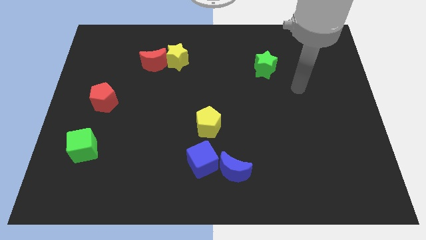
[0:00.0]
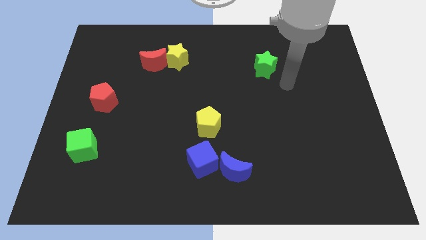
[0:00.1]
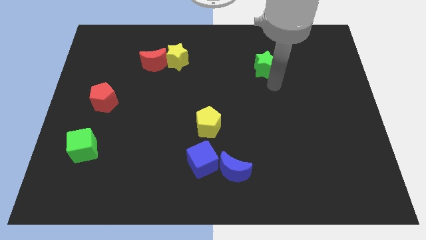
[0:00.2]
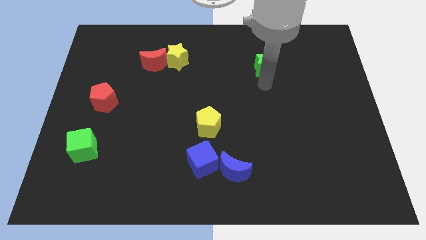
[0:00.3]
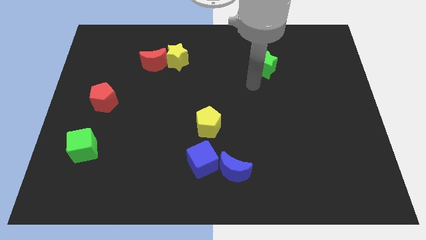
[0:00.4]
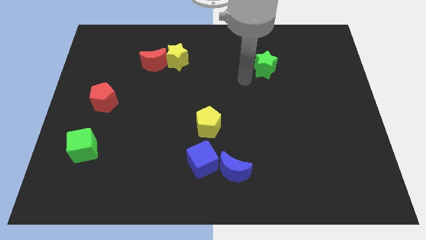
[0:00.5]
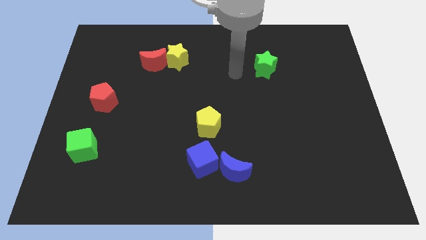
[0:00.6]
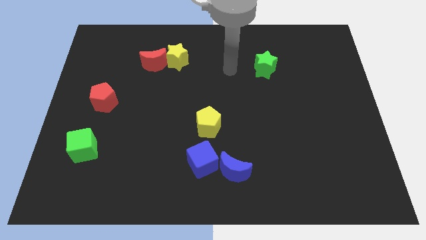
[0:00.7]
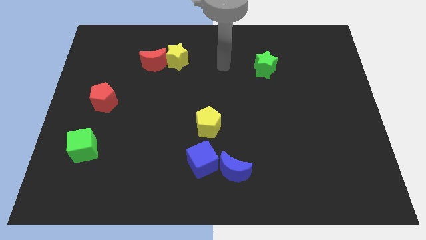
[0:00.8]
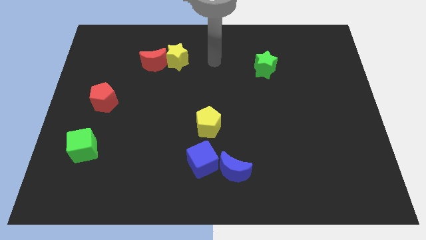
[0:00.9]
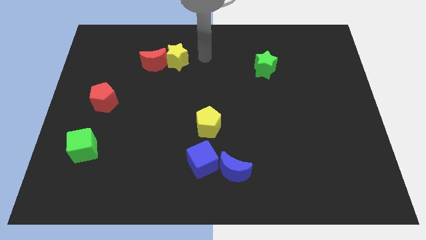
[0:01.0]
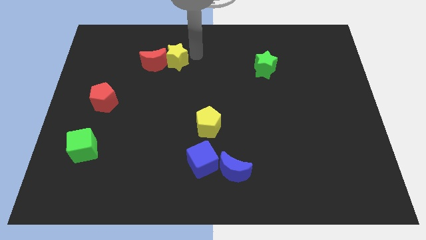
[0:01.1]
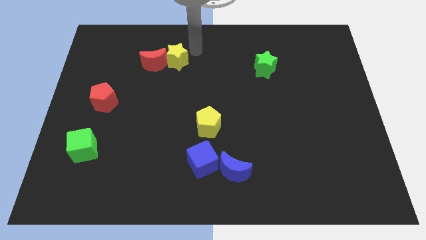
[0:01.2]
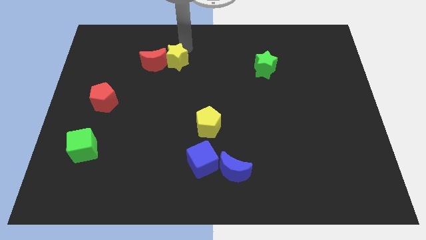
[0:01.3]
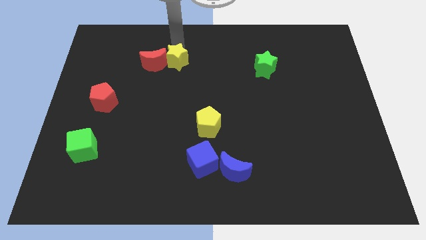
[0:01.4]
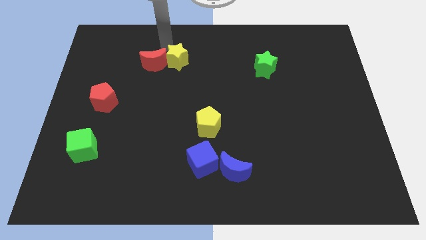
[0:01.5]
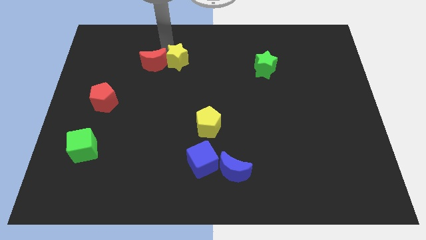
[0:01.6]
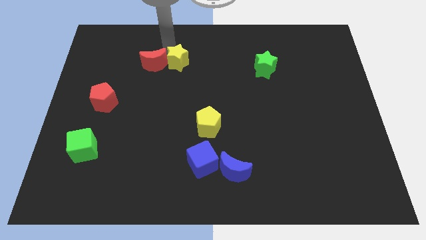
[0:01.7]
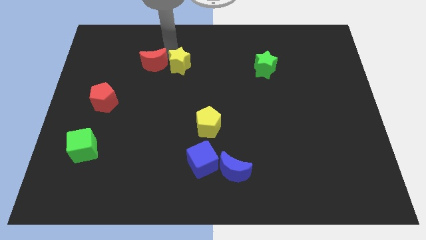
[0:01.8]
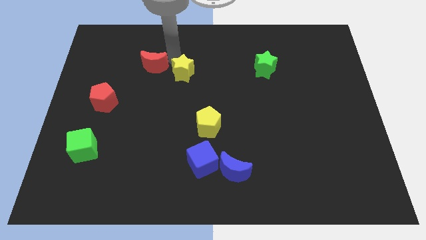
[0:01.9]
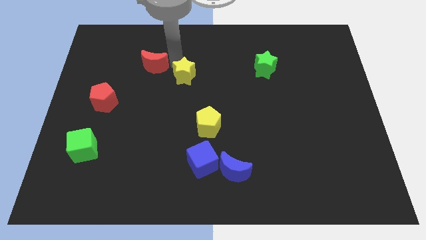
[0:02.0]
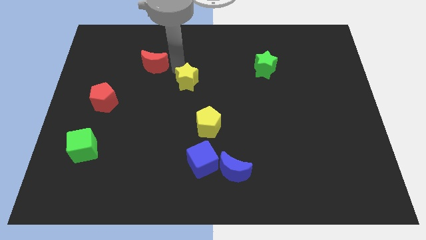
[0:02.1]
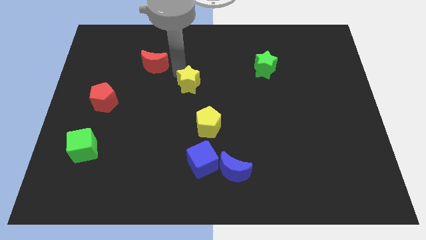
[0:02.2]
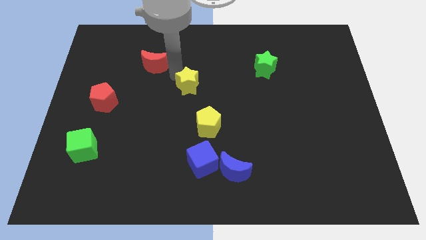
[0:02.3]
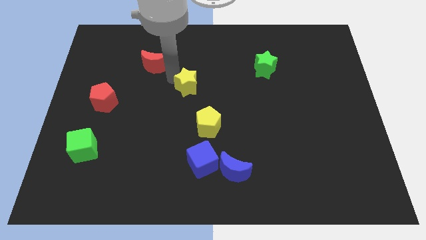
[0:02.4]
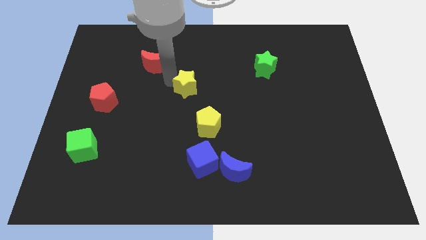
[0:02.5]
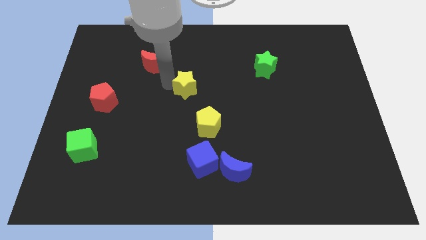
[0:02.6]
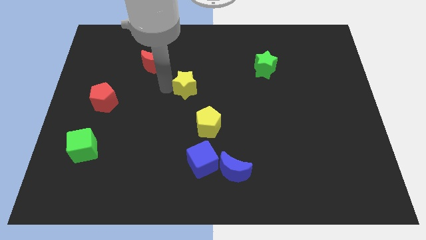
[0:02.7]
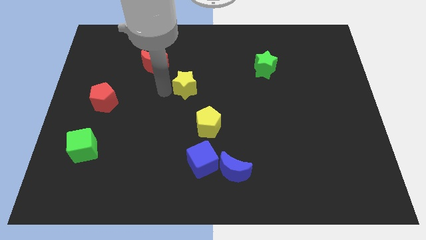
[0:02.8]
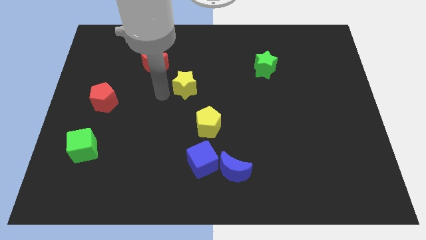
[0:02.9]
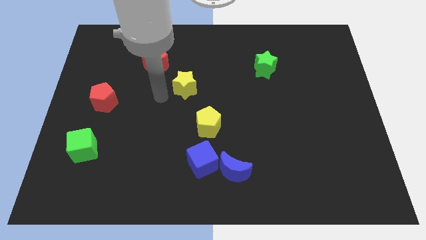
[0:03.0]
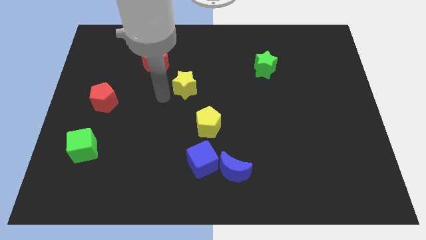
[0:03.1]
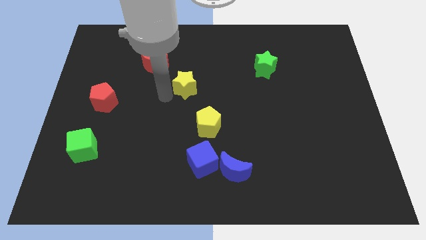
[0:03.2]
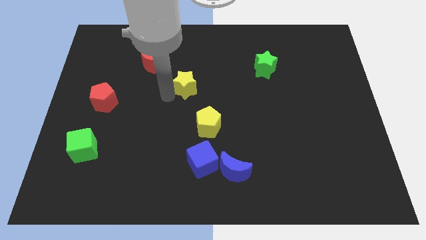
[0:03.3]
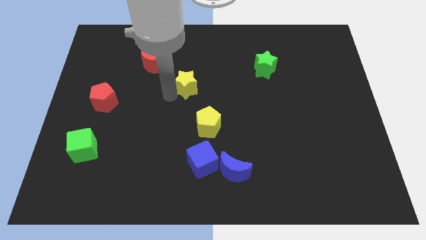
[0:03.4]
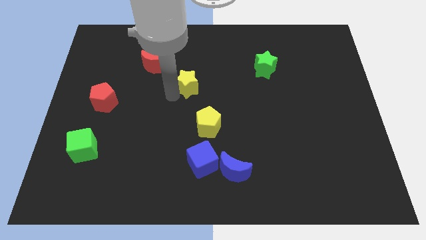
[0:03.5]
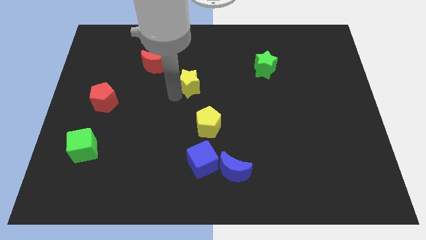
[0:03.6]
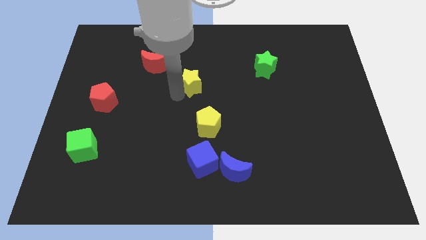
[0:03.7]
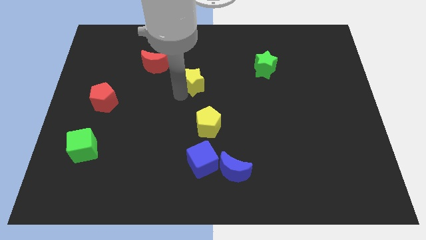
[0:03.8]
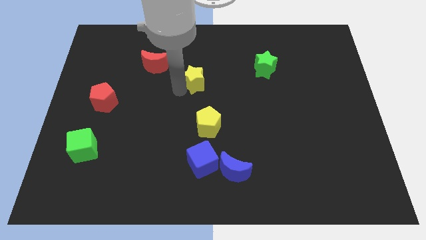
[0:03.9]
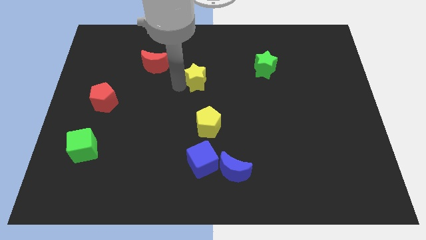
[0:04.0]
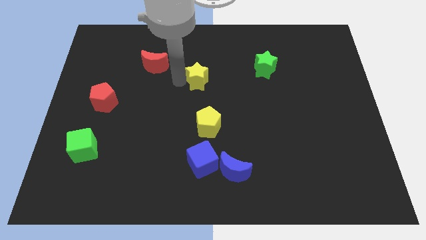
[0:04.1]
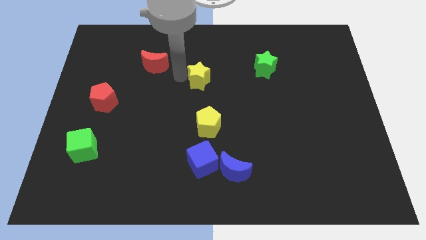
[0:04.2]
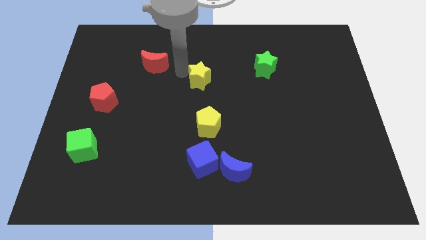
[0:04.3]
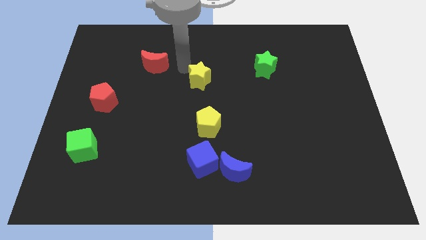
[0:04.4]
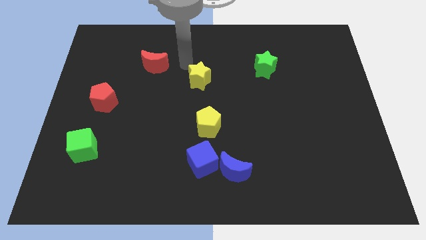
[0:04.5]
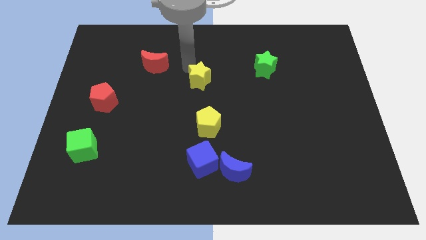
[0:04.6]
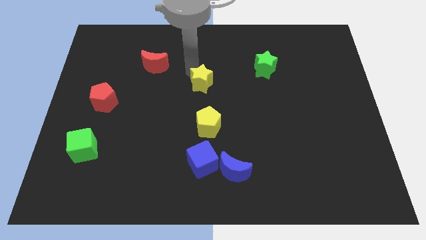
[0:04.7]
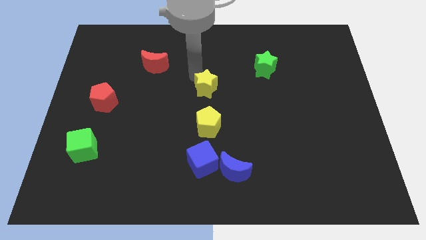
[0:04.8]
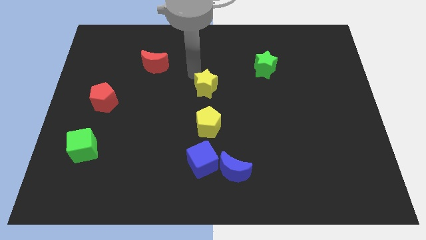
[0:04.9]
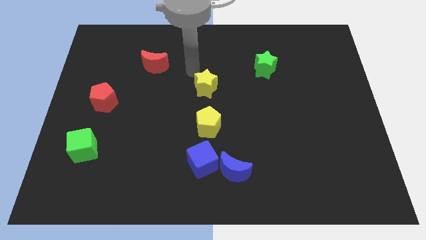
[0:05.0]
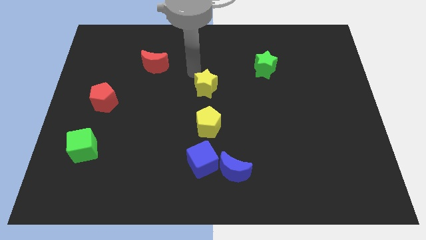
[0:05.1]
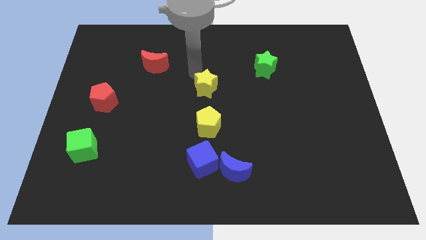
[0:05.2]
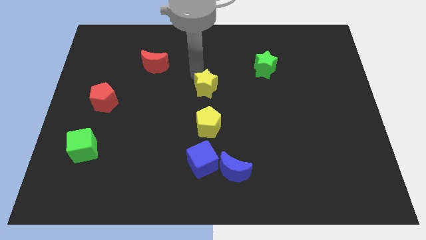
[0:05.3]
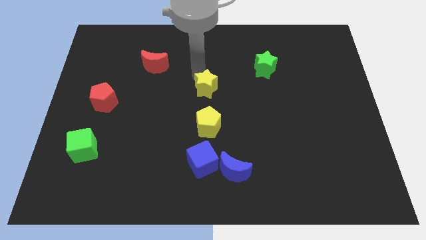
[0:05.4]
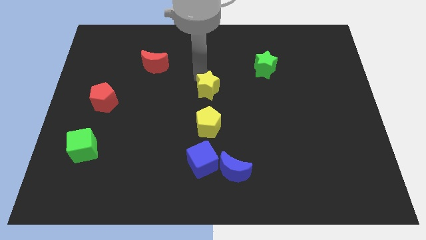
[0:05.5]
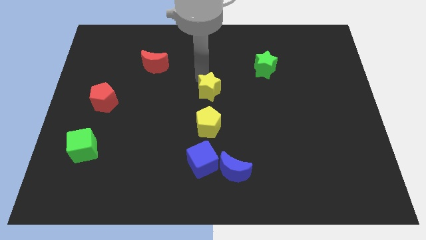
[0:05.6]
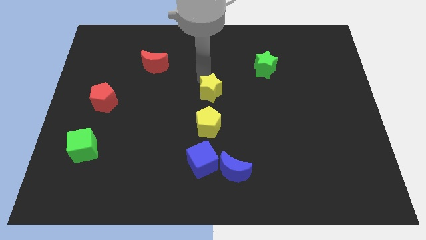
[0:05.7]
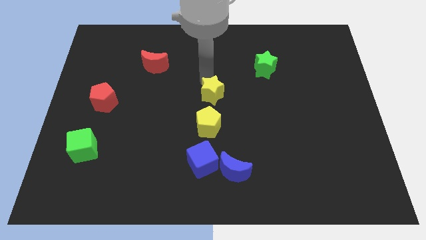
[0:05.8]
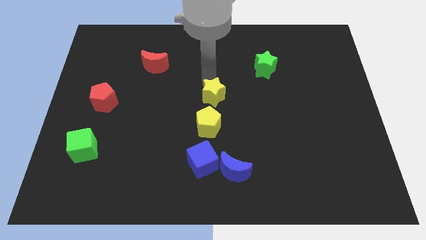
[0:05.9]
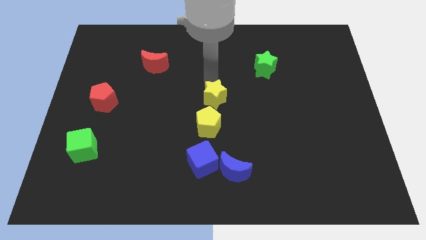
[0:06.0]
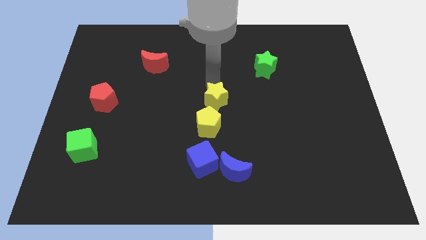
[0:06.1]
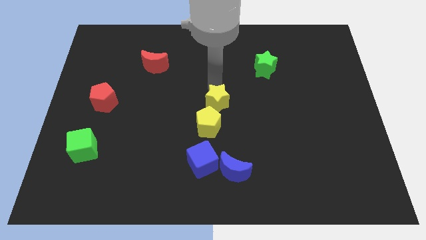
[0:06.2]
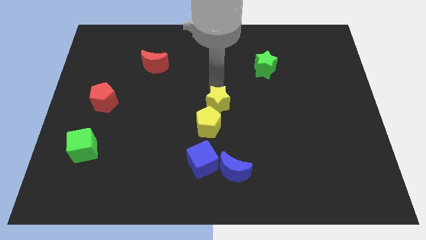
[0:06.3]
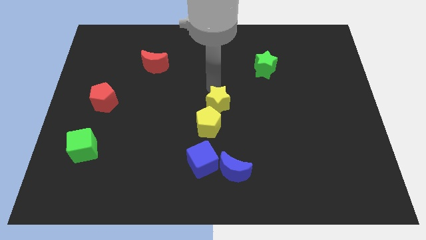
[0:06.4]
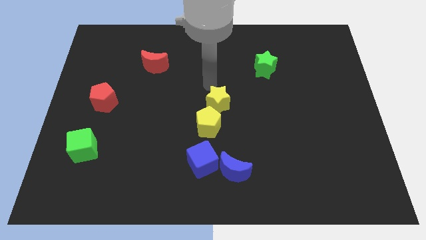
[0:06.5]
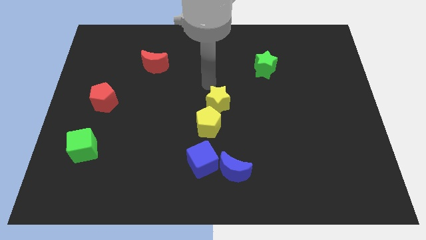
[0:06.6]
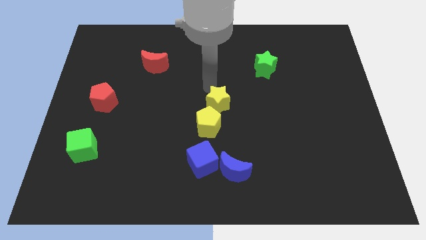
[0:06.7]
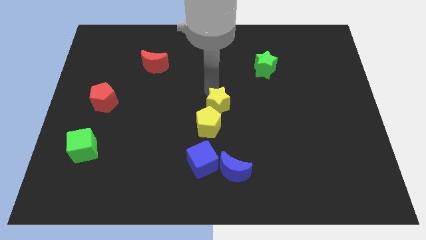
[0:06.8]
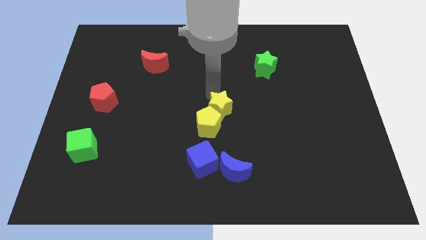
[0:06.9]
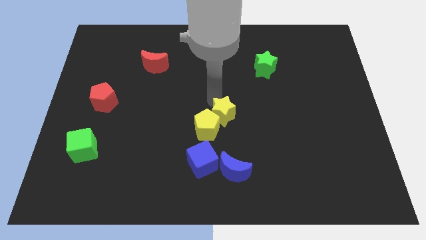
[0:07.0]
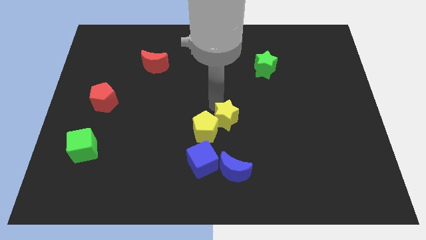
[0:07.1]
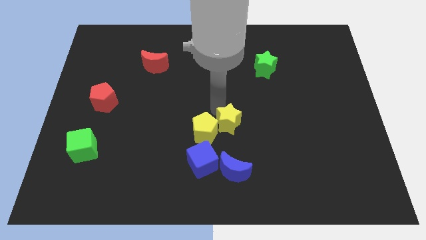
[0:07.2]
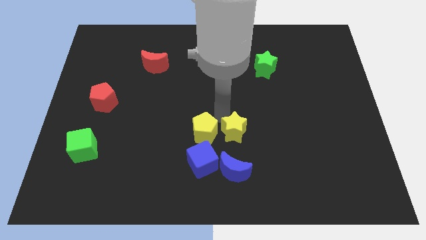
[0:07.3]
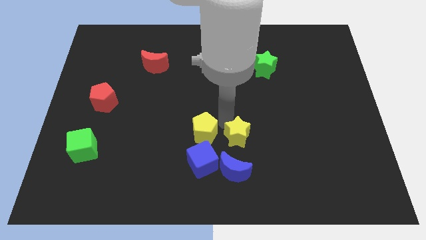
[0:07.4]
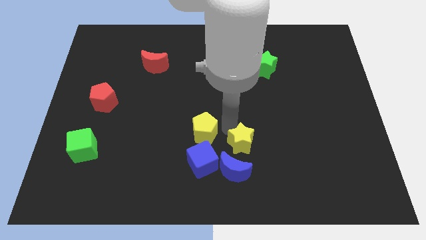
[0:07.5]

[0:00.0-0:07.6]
move the yellow star to the top right of the blue moon
